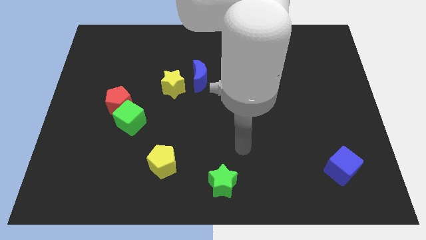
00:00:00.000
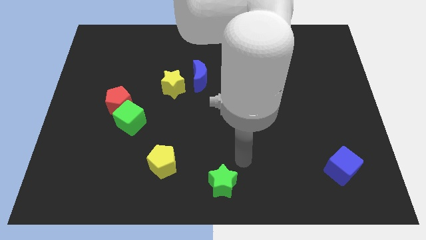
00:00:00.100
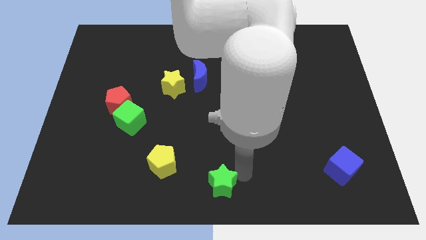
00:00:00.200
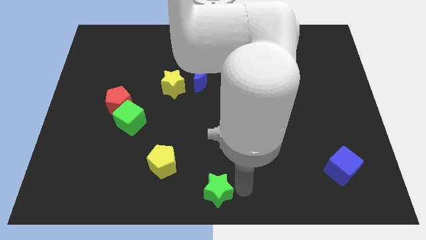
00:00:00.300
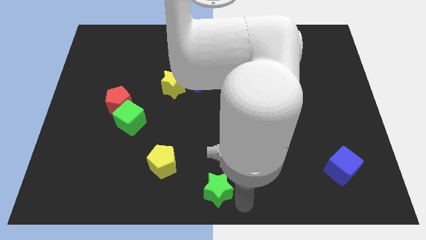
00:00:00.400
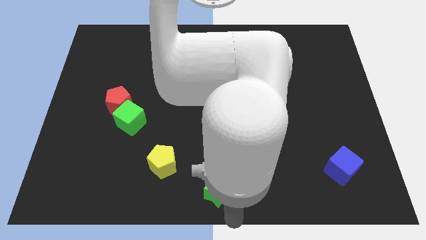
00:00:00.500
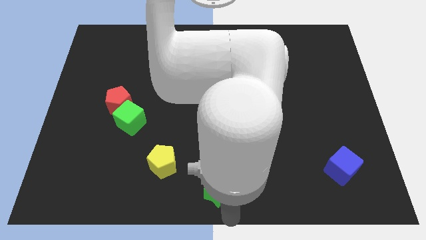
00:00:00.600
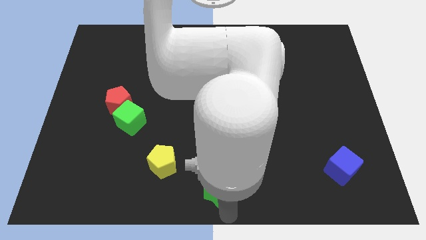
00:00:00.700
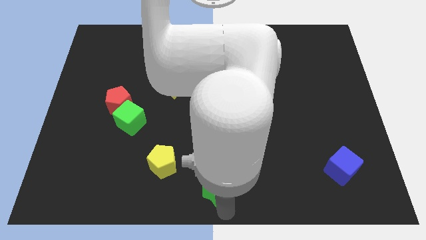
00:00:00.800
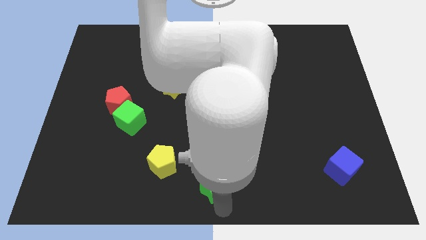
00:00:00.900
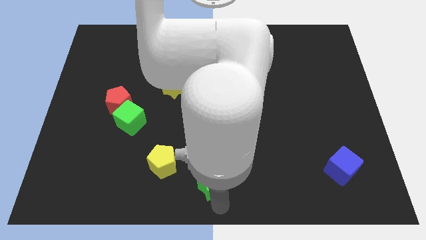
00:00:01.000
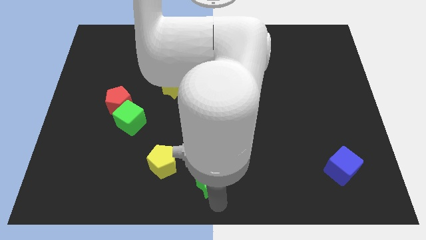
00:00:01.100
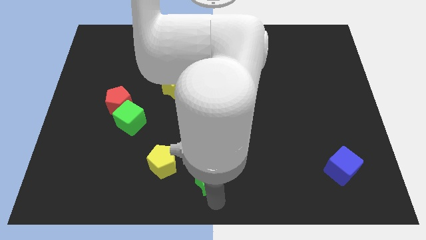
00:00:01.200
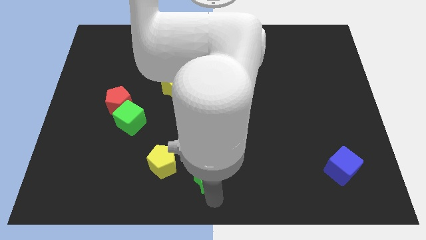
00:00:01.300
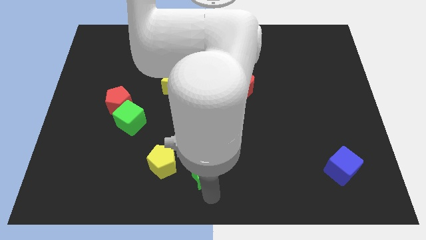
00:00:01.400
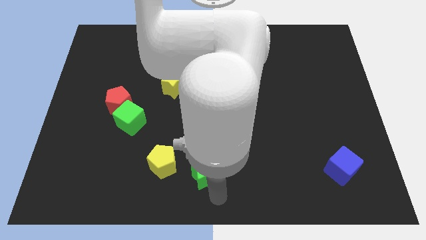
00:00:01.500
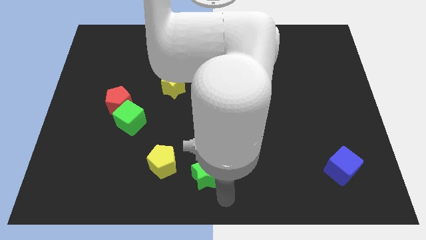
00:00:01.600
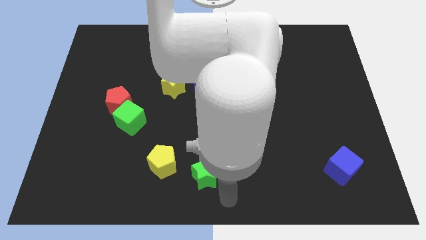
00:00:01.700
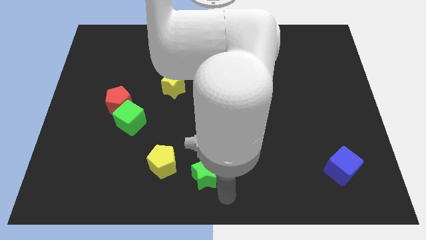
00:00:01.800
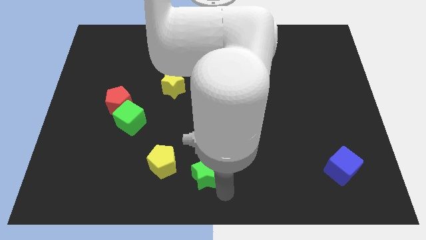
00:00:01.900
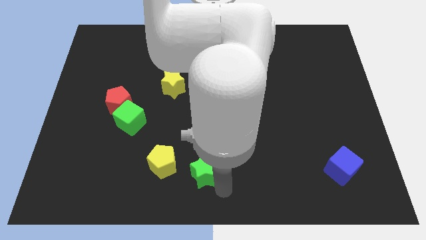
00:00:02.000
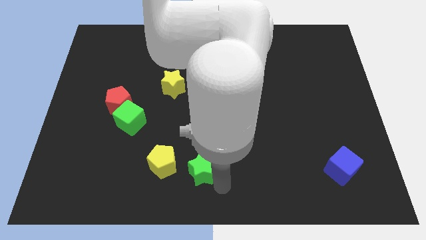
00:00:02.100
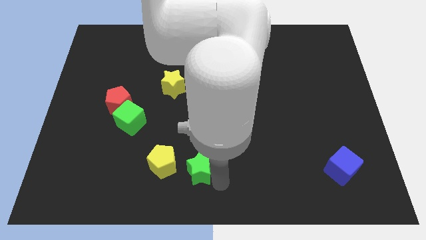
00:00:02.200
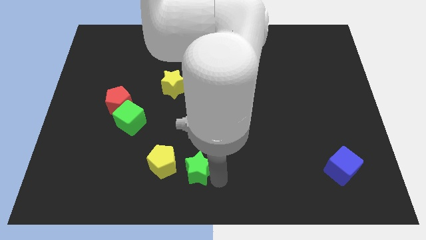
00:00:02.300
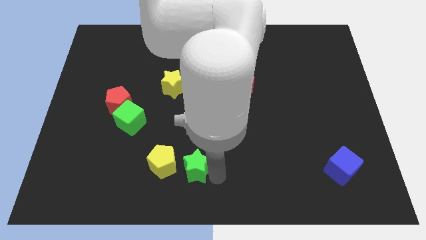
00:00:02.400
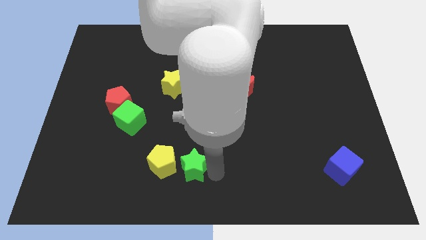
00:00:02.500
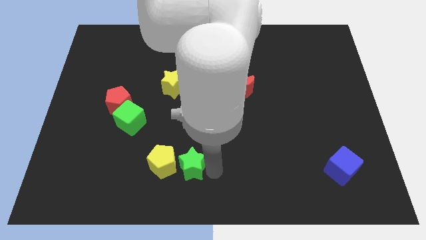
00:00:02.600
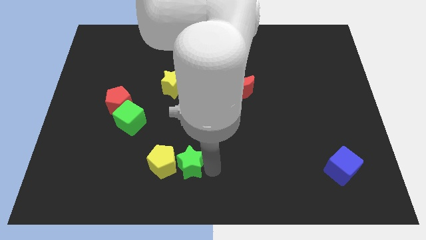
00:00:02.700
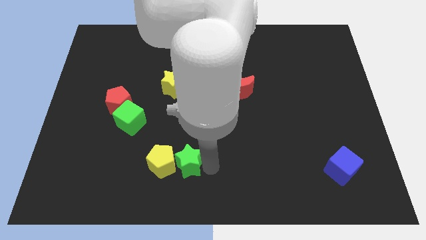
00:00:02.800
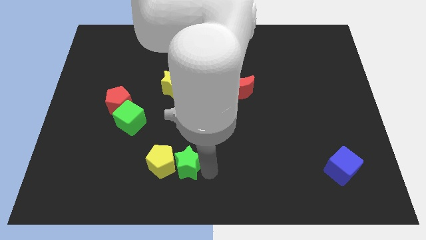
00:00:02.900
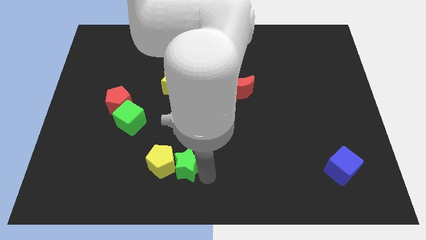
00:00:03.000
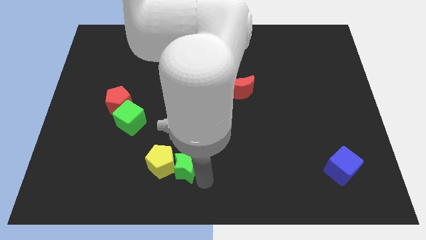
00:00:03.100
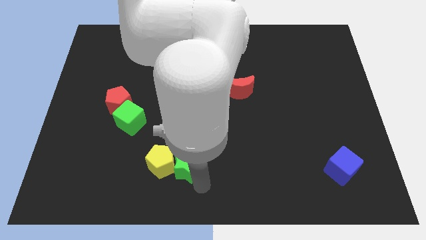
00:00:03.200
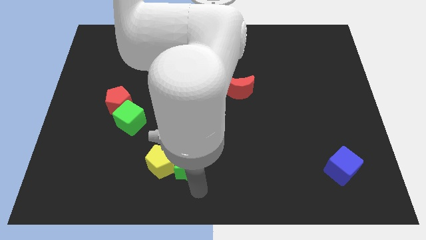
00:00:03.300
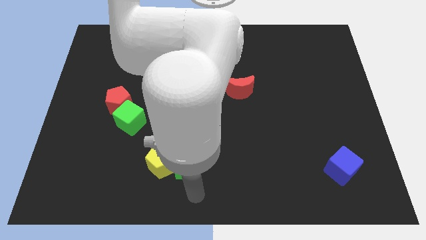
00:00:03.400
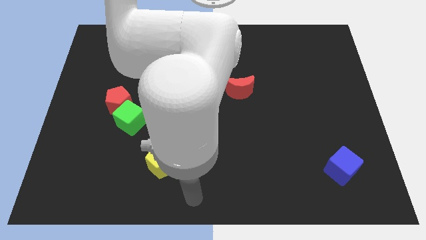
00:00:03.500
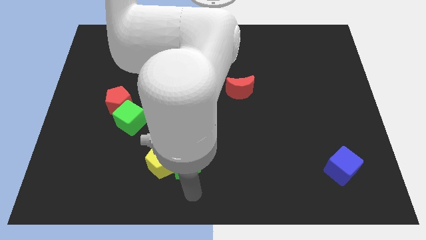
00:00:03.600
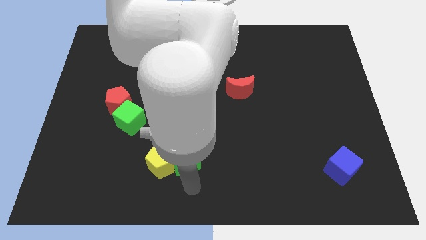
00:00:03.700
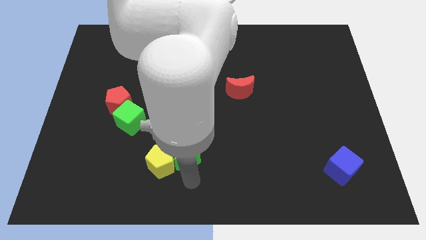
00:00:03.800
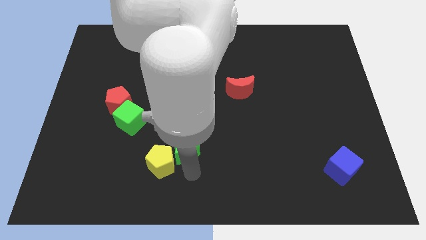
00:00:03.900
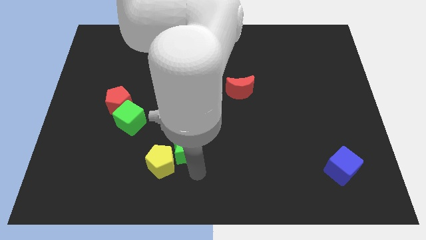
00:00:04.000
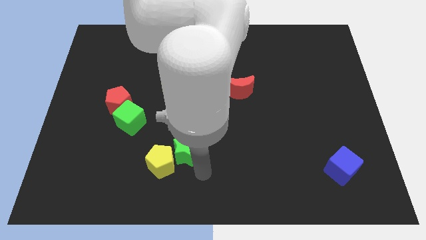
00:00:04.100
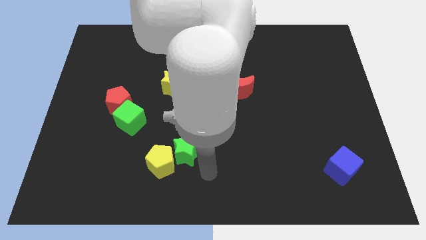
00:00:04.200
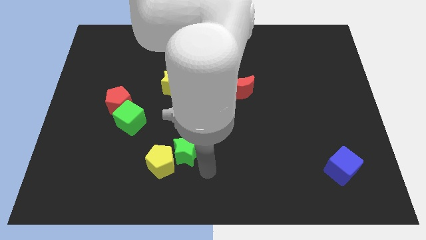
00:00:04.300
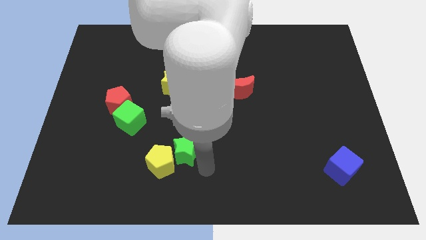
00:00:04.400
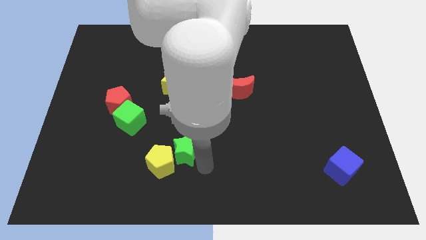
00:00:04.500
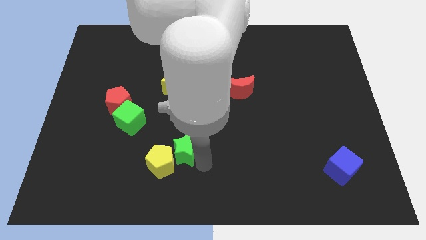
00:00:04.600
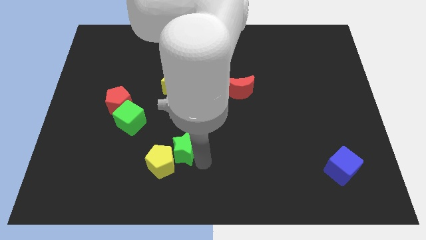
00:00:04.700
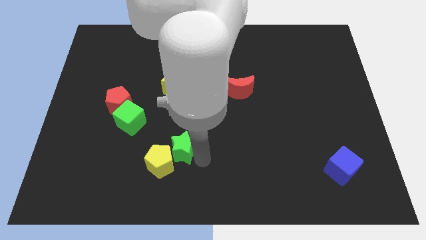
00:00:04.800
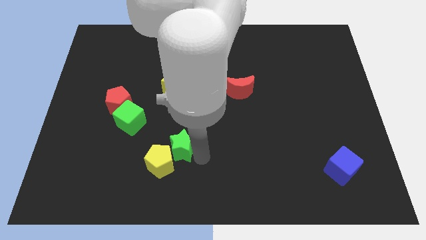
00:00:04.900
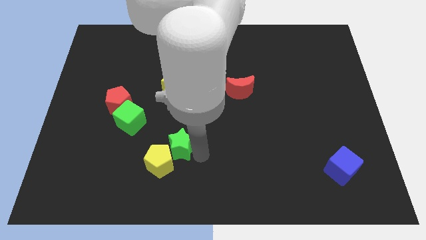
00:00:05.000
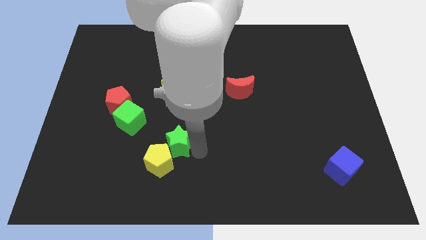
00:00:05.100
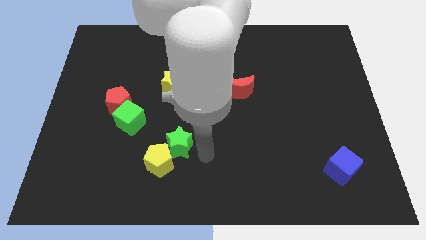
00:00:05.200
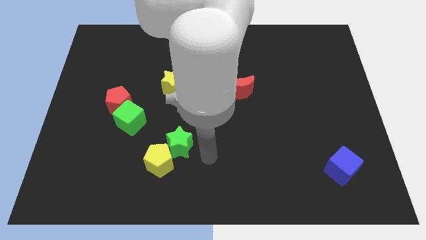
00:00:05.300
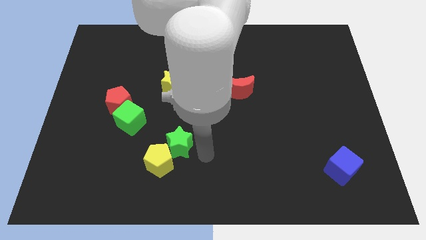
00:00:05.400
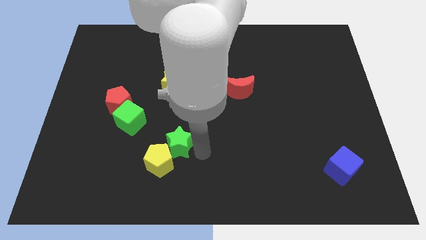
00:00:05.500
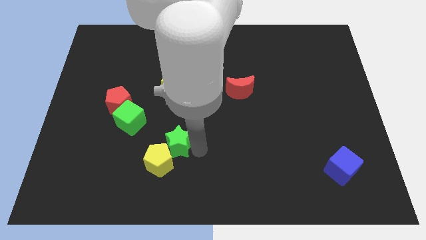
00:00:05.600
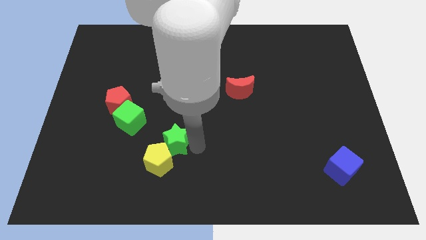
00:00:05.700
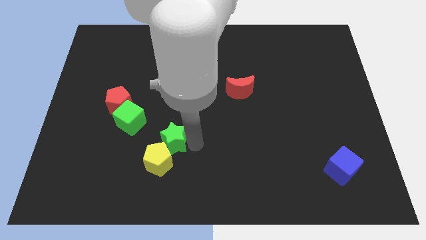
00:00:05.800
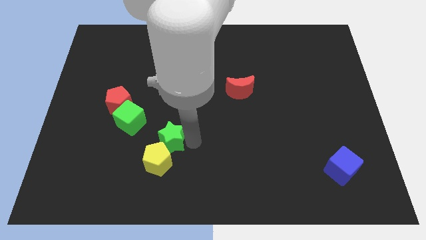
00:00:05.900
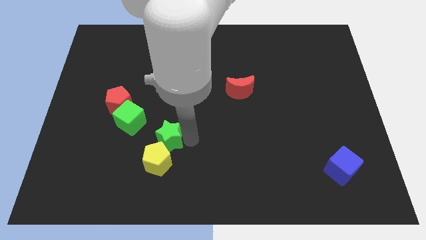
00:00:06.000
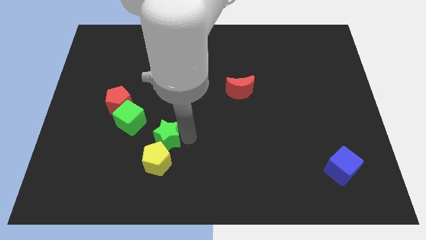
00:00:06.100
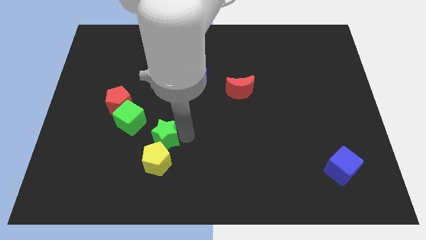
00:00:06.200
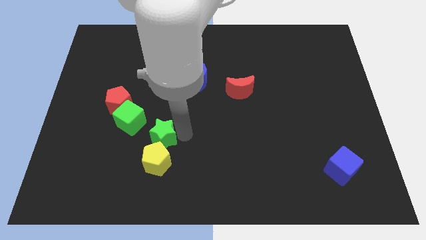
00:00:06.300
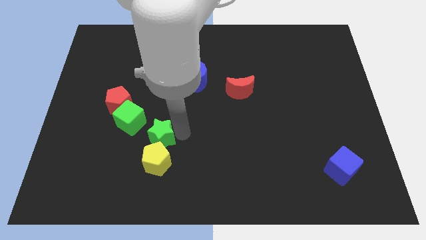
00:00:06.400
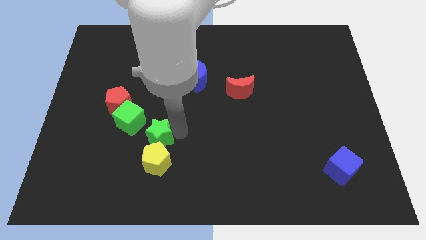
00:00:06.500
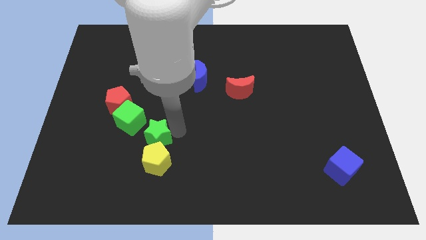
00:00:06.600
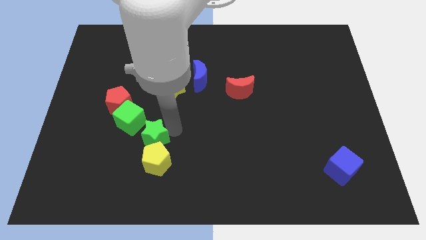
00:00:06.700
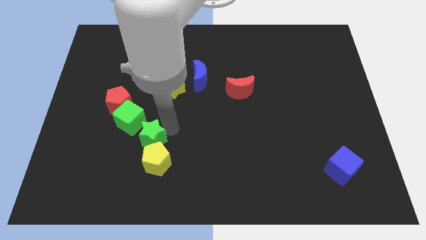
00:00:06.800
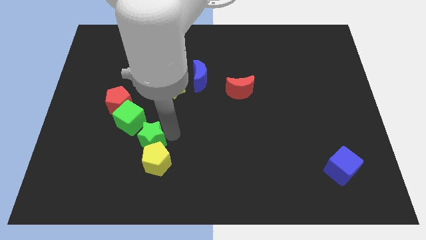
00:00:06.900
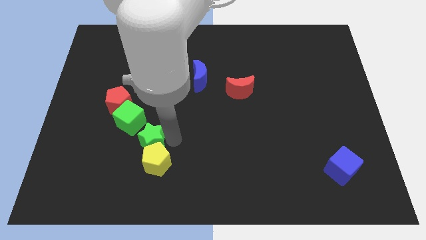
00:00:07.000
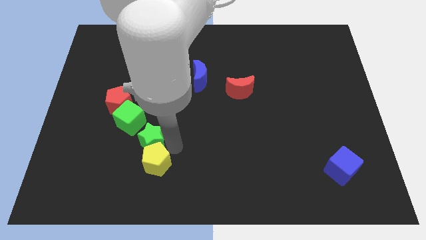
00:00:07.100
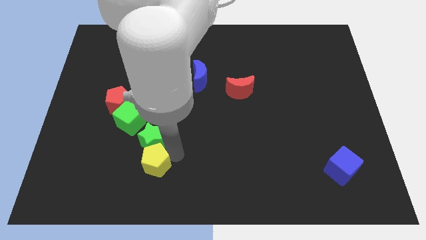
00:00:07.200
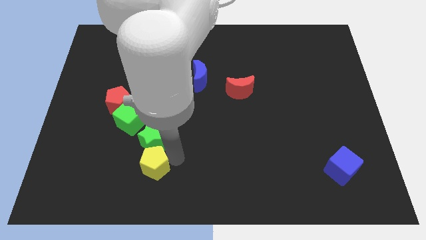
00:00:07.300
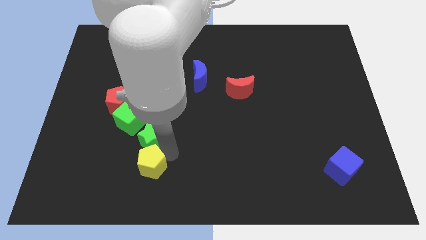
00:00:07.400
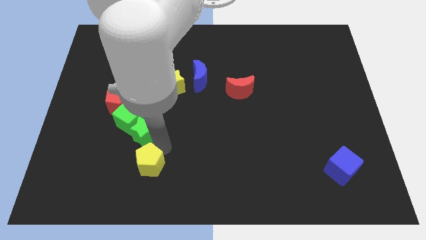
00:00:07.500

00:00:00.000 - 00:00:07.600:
slide the green star towards the green cube

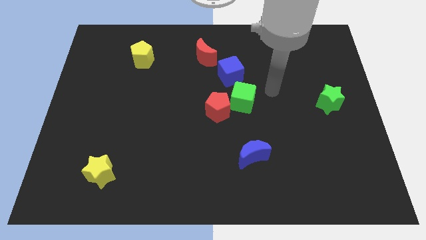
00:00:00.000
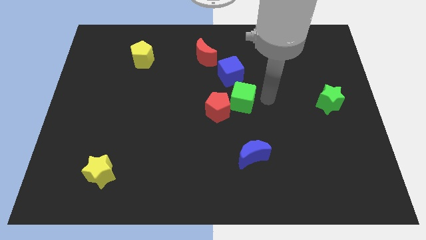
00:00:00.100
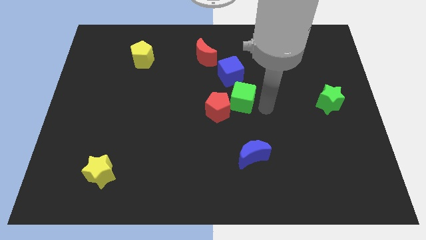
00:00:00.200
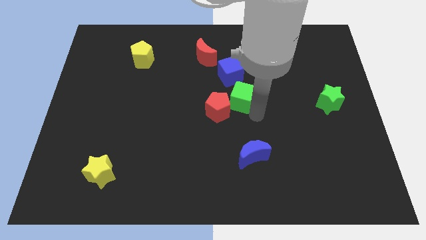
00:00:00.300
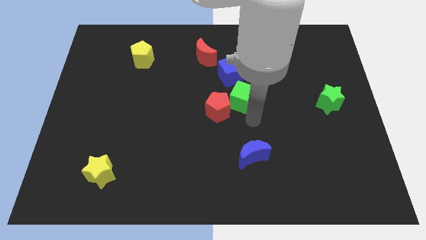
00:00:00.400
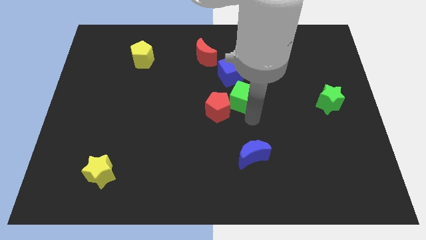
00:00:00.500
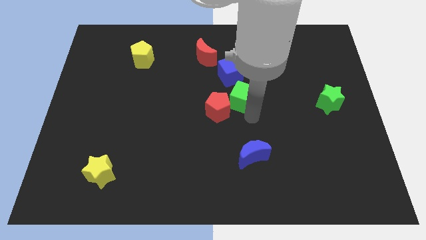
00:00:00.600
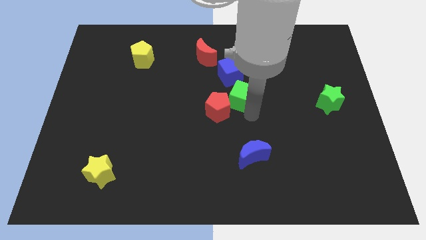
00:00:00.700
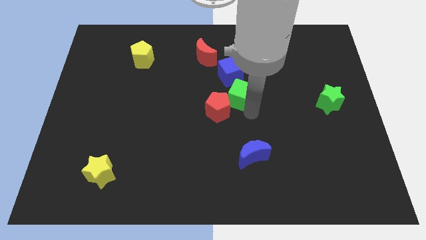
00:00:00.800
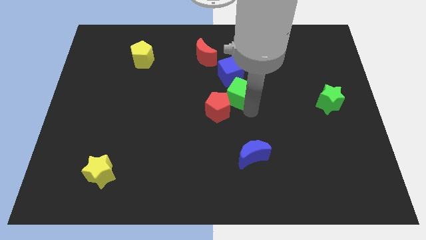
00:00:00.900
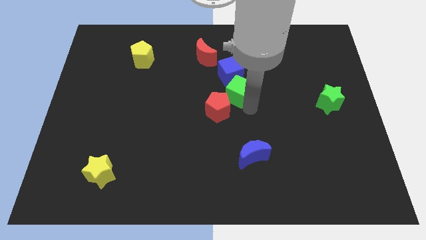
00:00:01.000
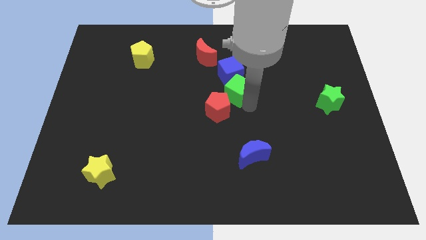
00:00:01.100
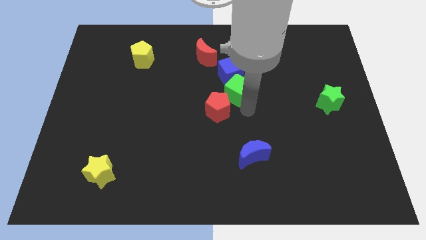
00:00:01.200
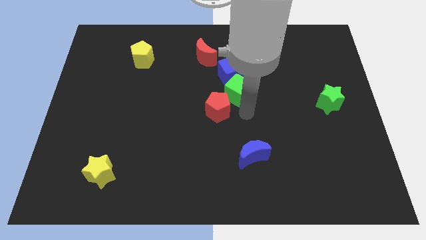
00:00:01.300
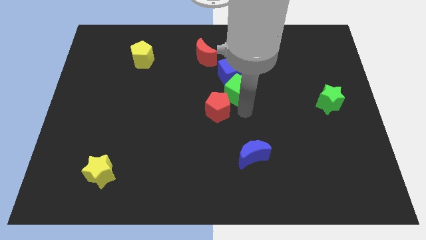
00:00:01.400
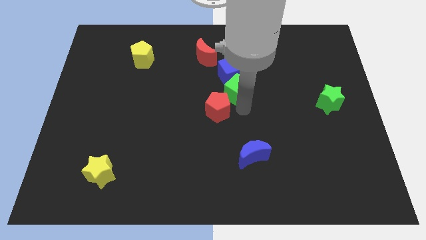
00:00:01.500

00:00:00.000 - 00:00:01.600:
push the green cube towards the blue cube
